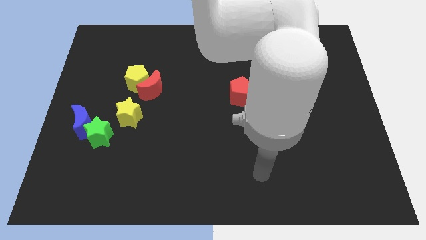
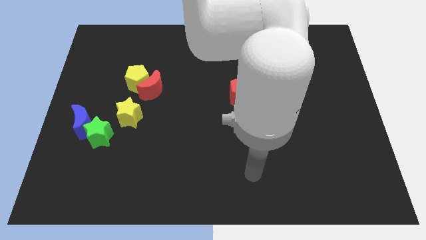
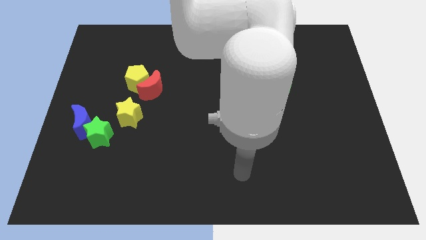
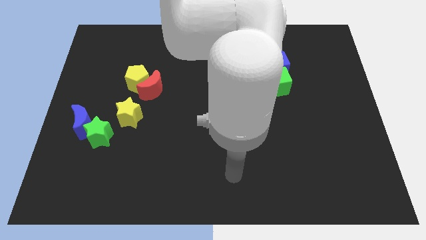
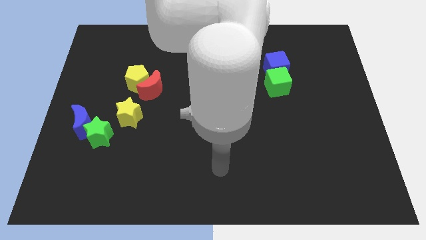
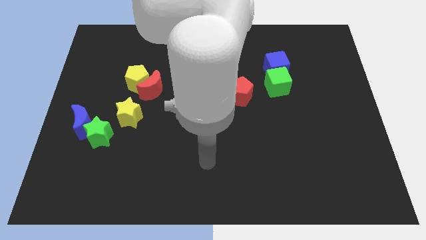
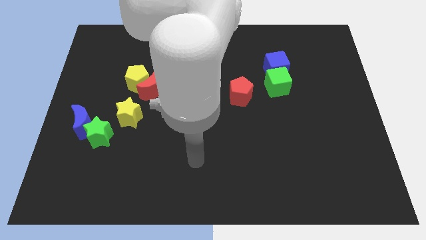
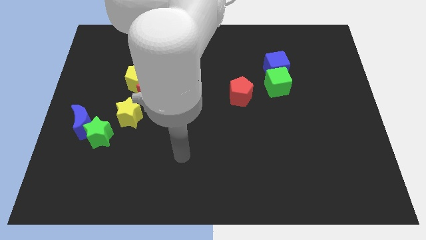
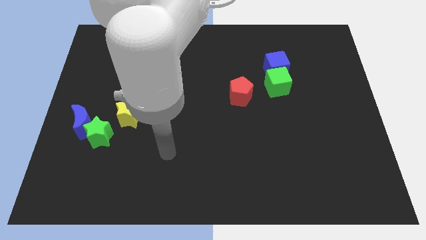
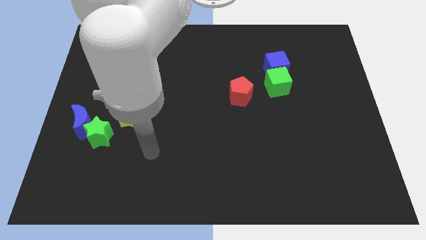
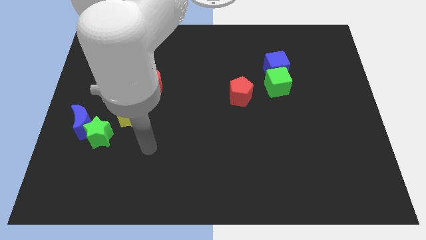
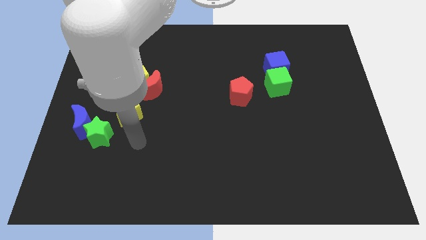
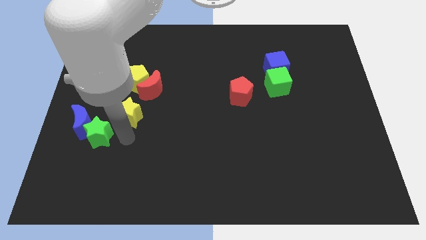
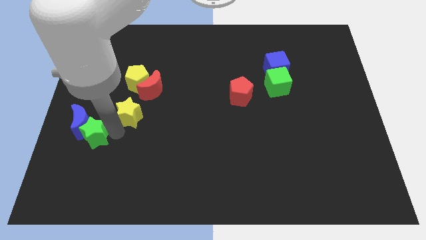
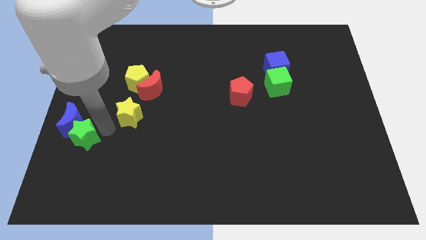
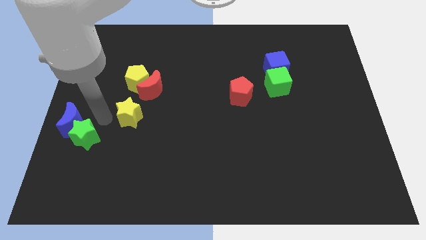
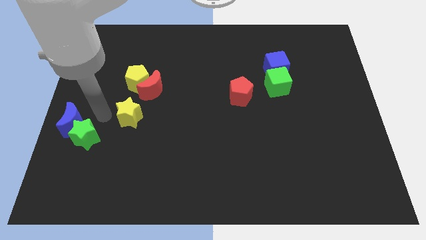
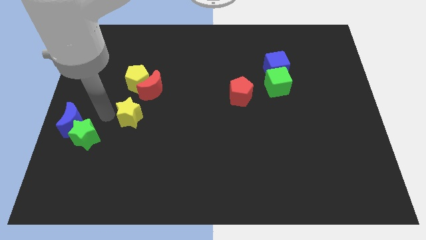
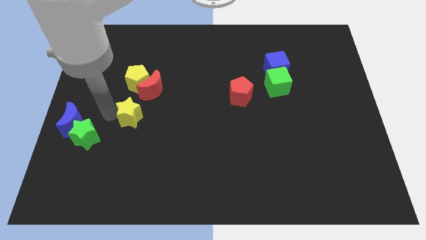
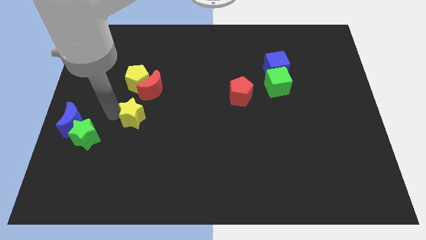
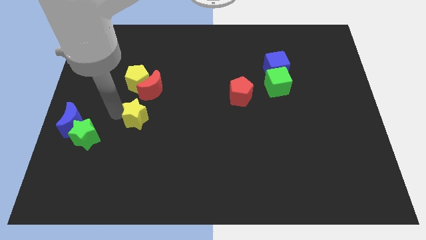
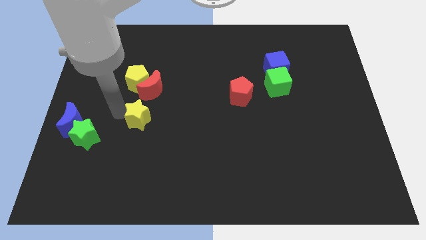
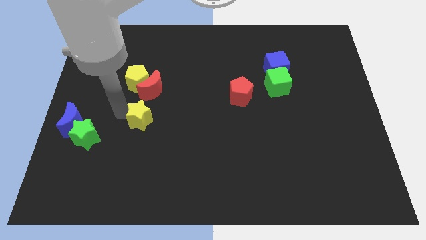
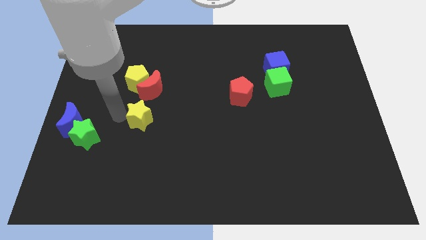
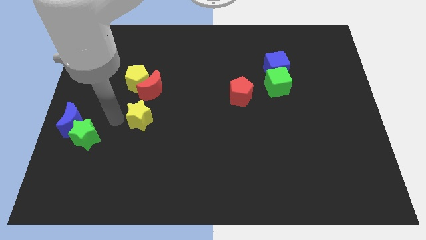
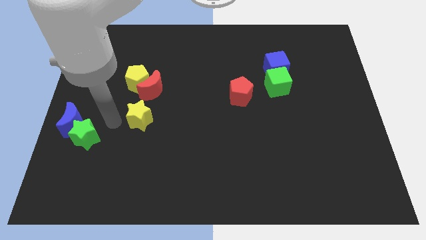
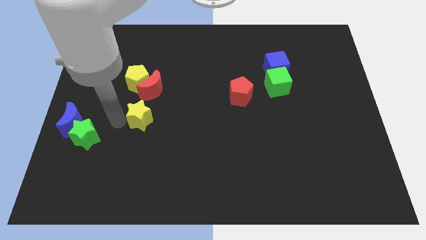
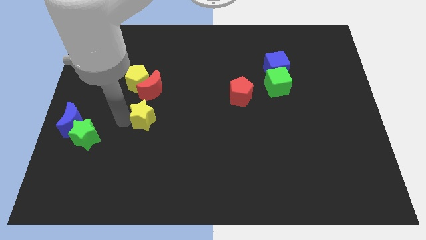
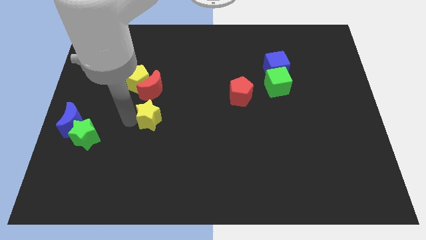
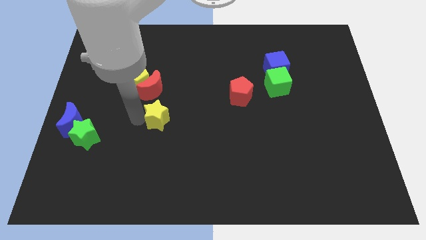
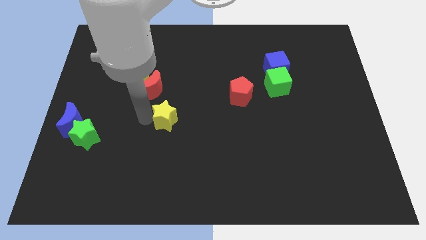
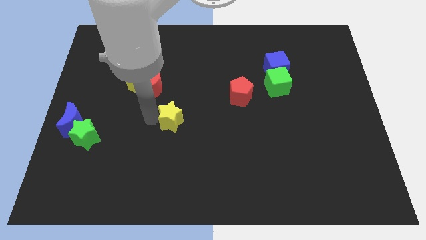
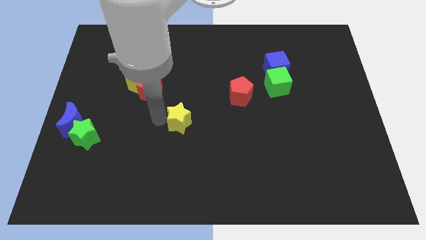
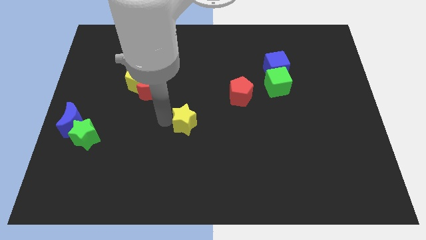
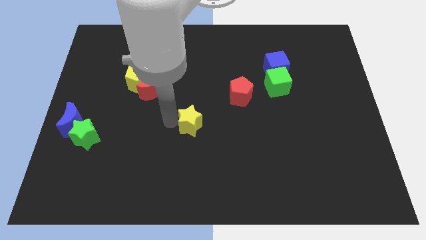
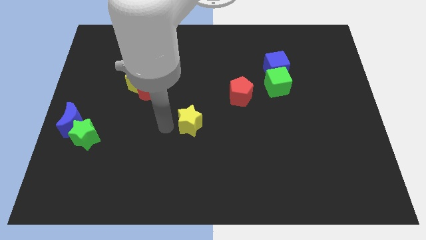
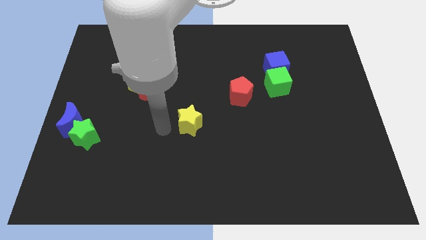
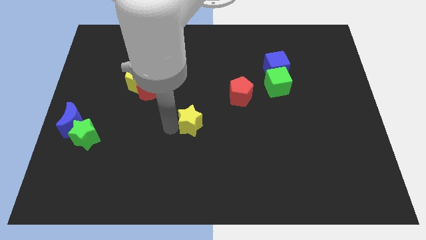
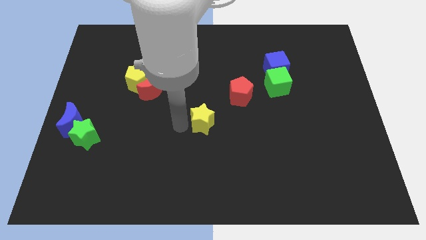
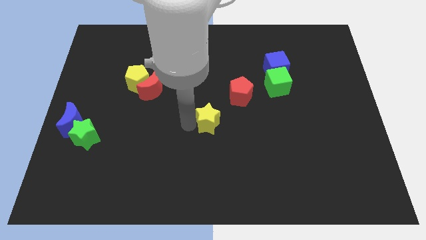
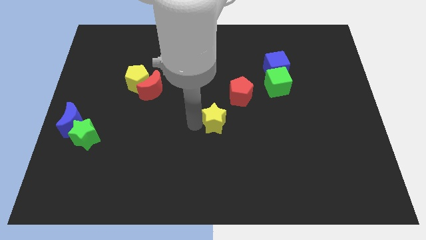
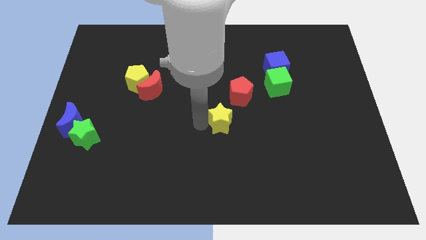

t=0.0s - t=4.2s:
push the yellow star to the right

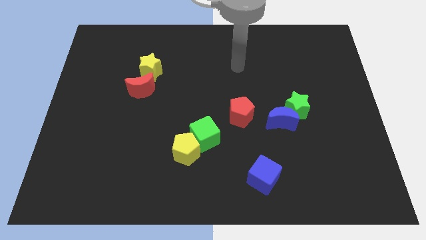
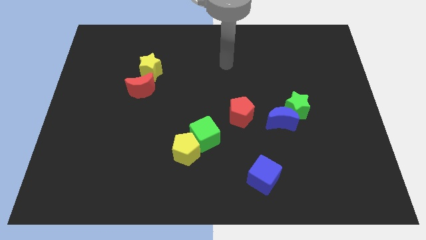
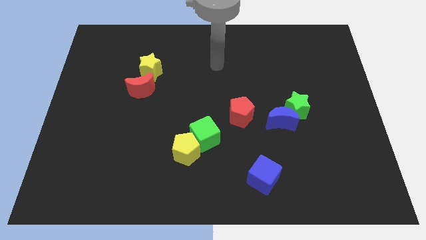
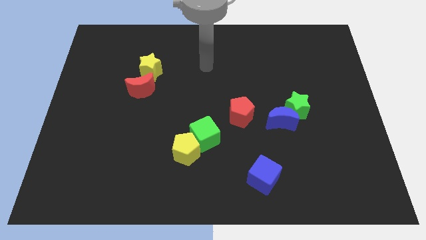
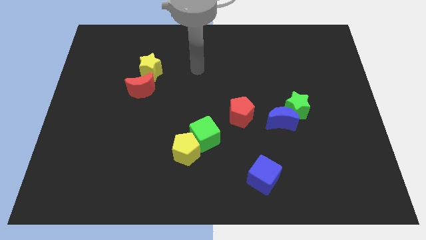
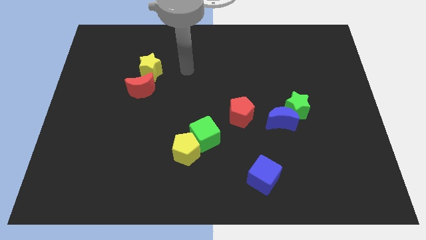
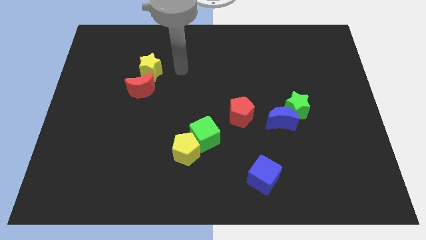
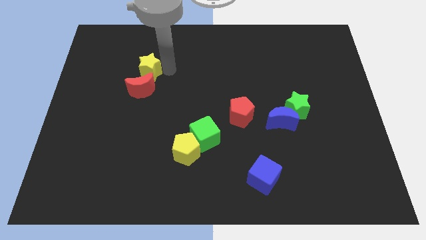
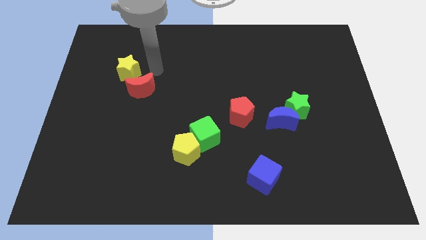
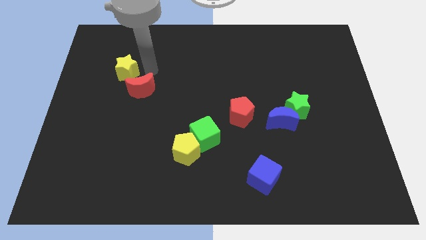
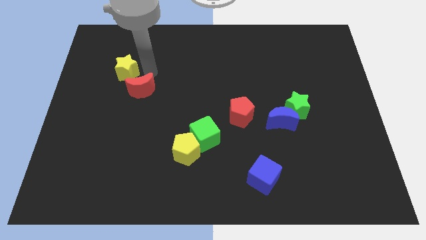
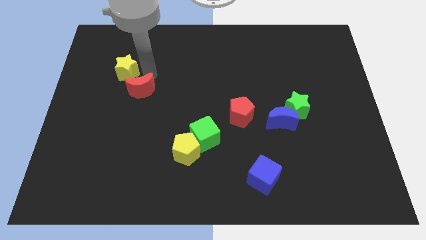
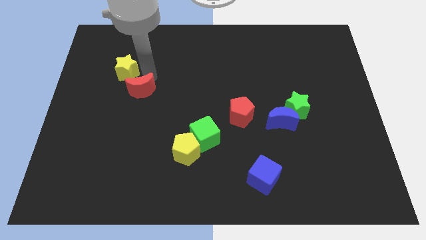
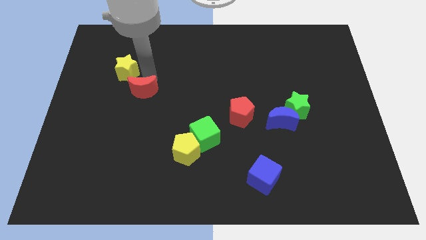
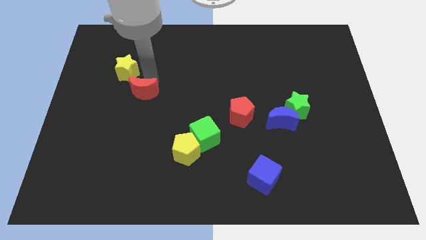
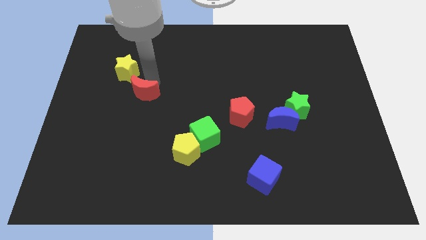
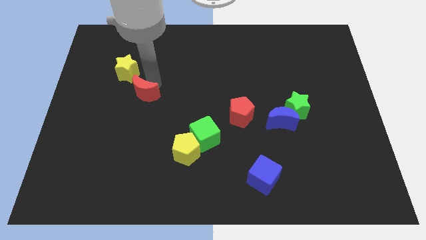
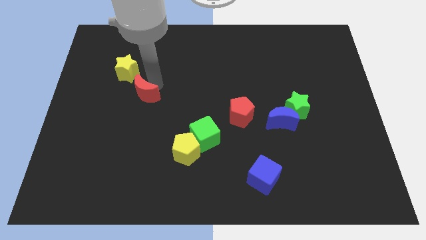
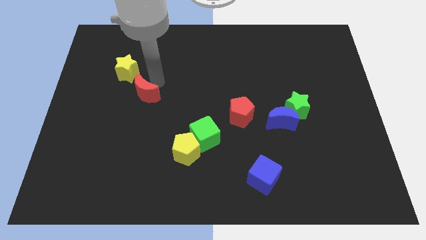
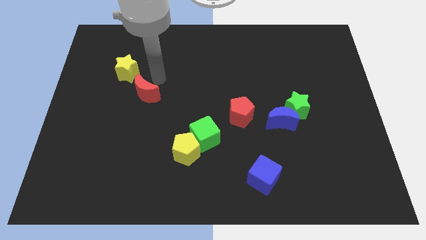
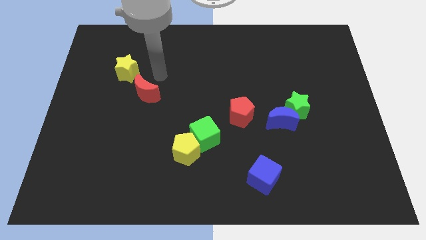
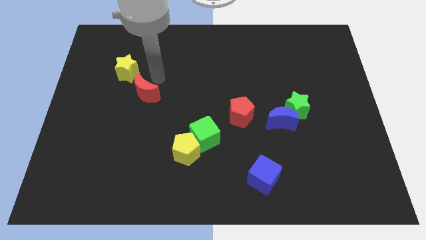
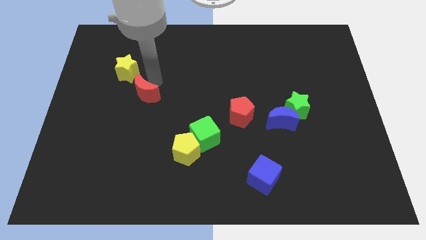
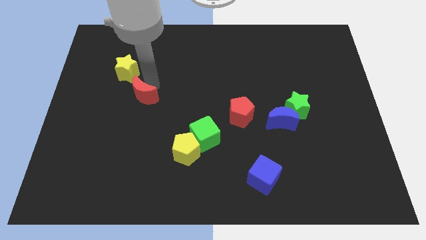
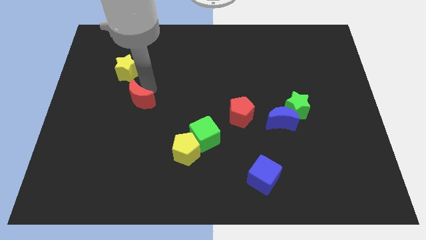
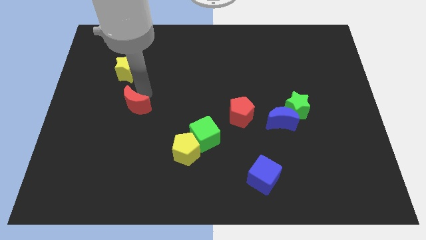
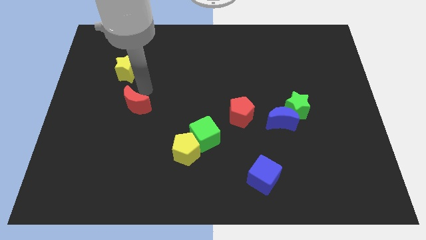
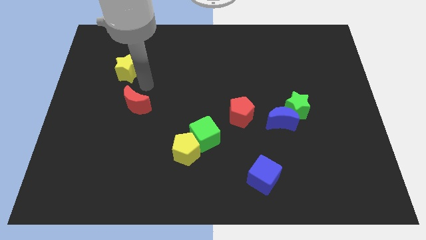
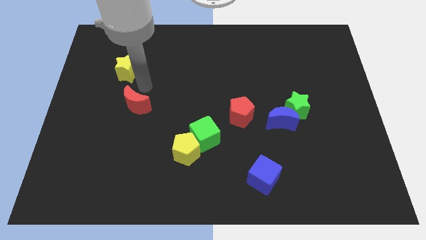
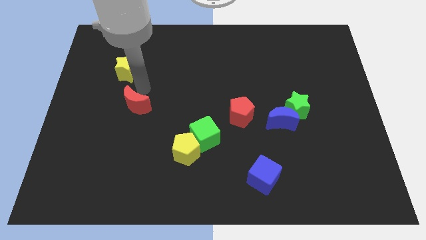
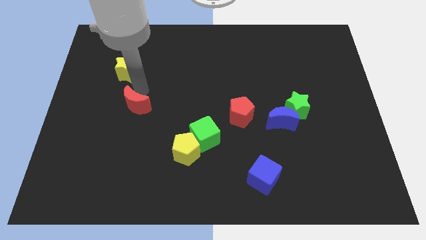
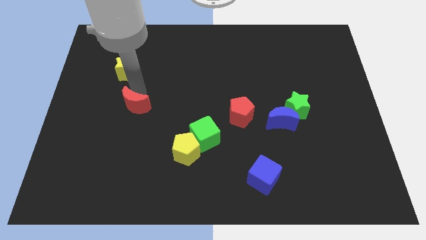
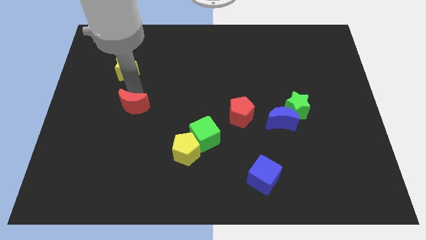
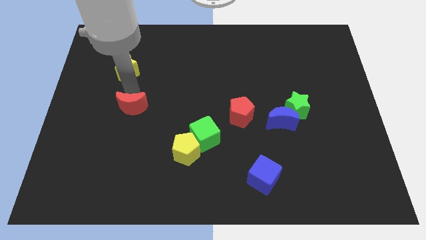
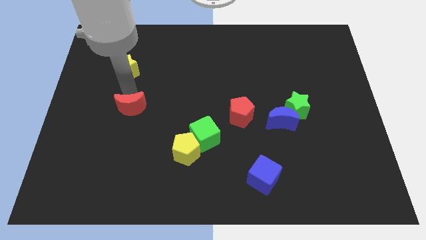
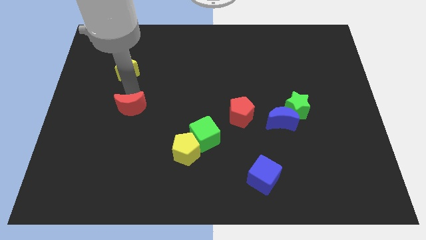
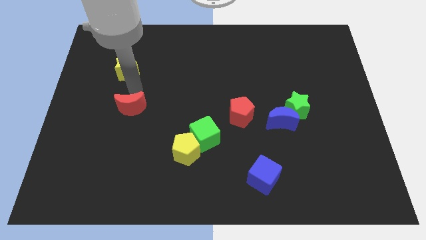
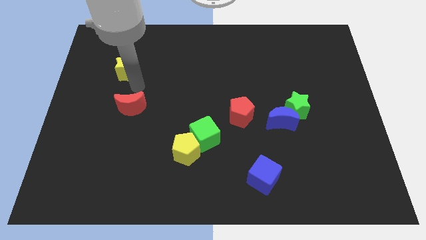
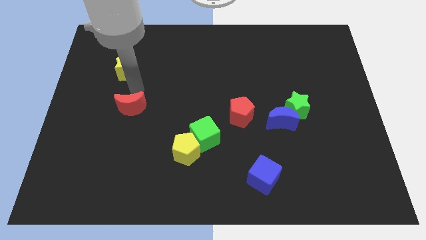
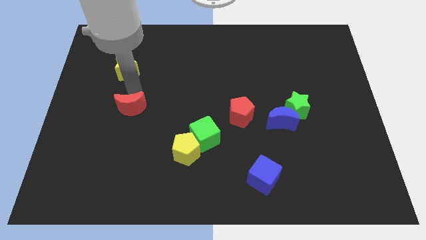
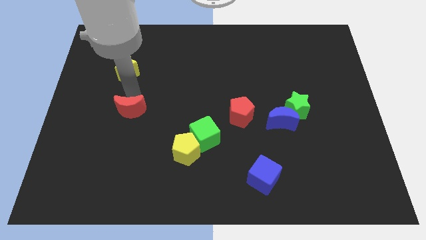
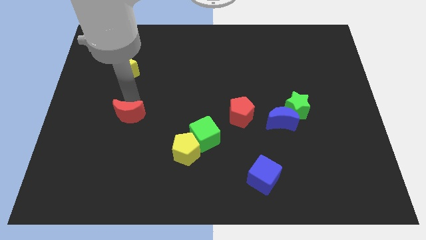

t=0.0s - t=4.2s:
slightly move the red moon down
